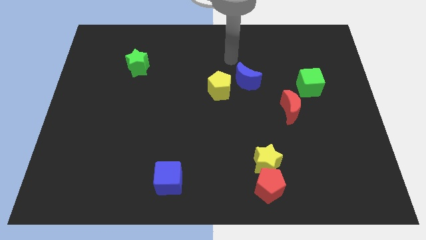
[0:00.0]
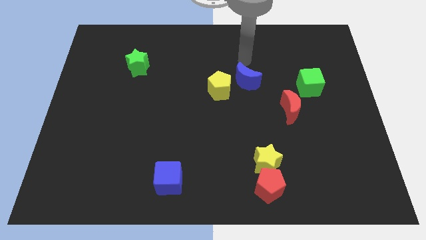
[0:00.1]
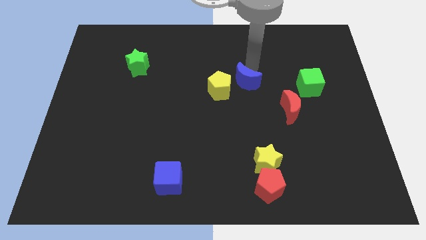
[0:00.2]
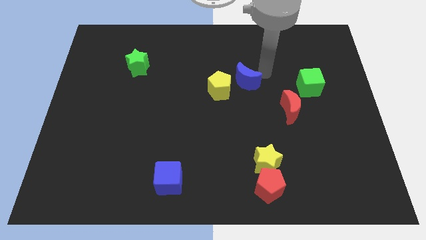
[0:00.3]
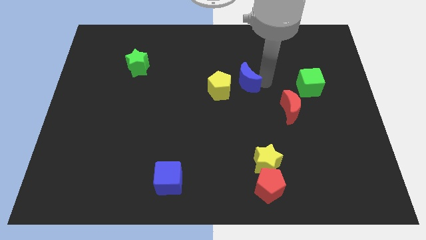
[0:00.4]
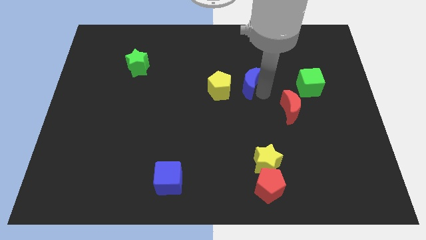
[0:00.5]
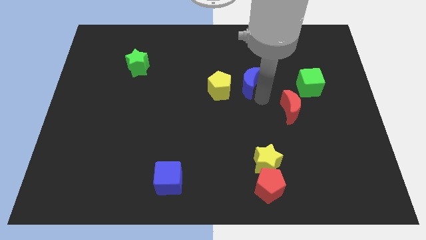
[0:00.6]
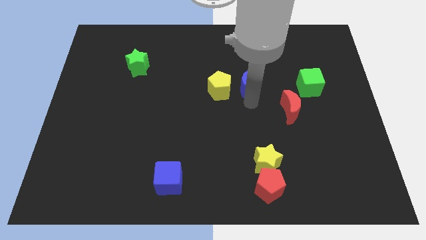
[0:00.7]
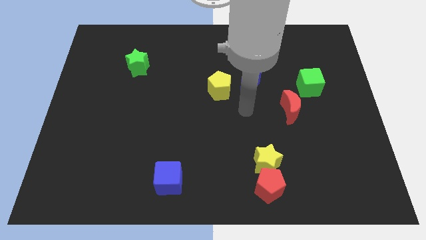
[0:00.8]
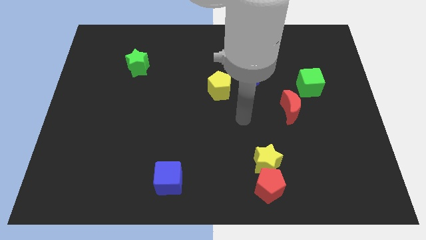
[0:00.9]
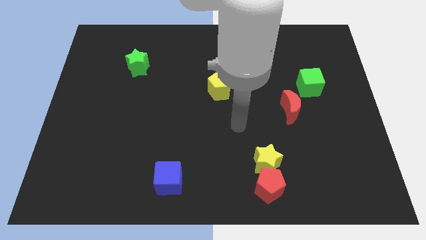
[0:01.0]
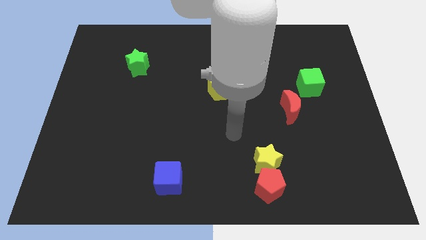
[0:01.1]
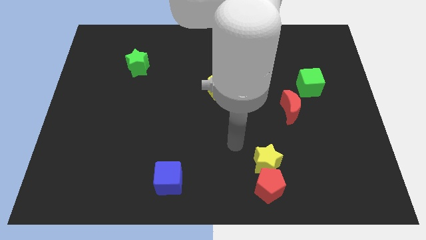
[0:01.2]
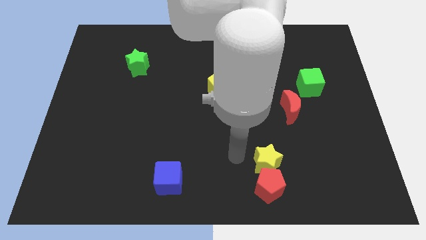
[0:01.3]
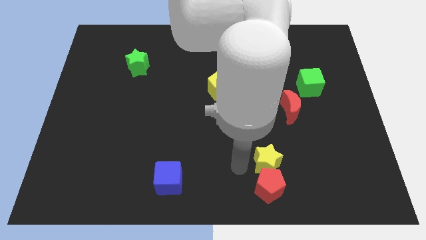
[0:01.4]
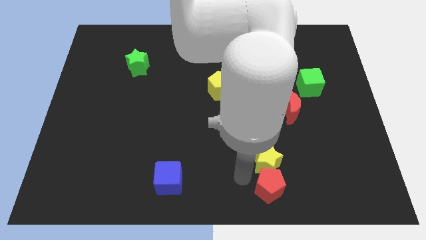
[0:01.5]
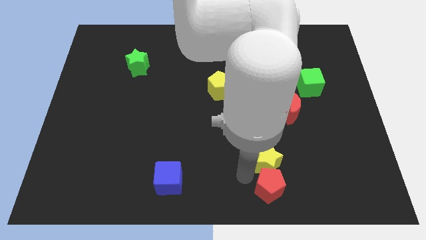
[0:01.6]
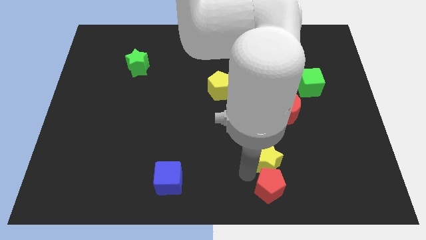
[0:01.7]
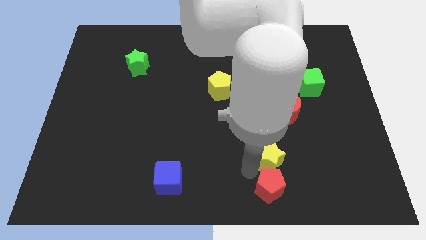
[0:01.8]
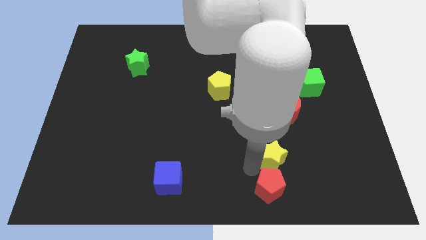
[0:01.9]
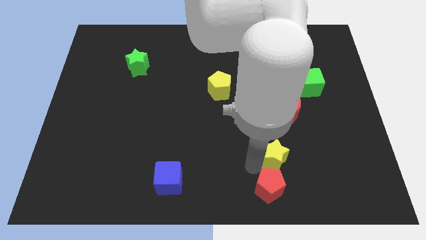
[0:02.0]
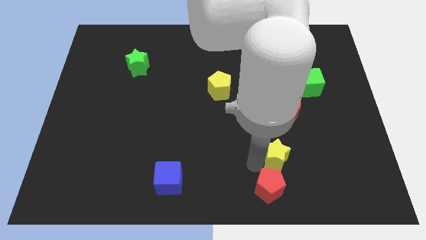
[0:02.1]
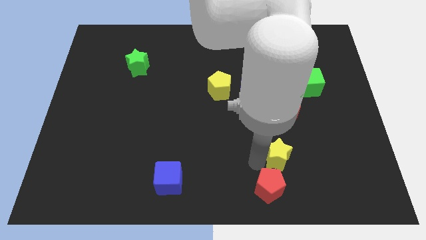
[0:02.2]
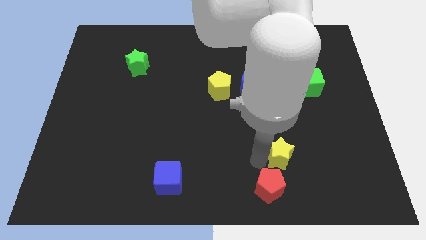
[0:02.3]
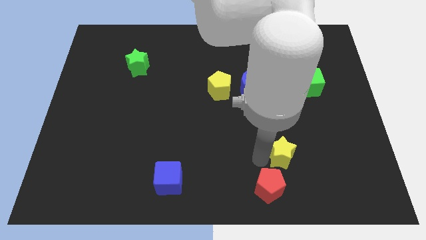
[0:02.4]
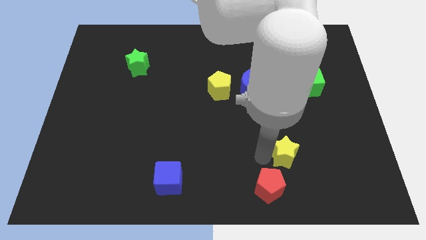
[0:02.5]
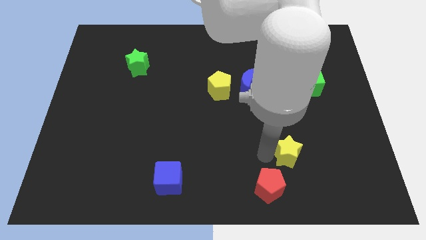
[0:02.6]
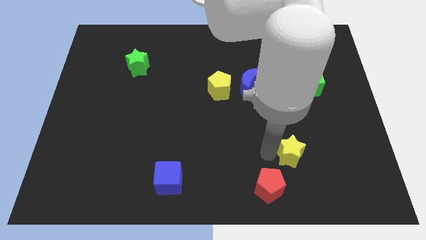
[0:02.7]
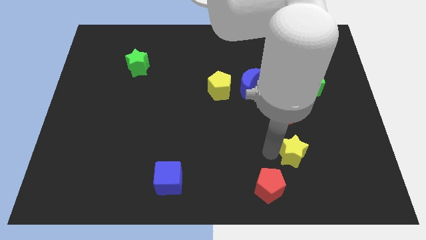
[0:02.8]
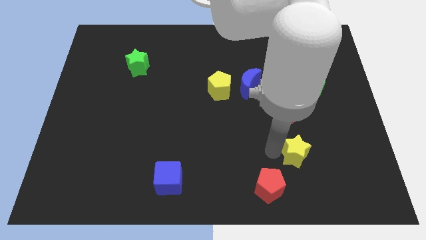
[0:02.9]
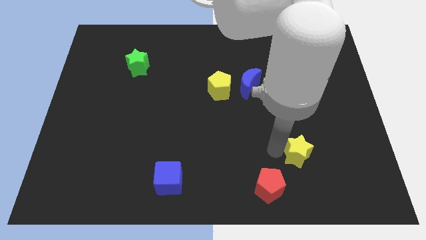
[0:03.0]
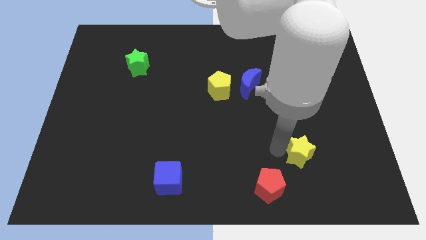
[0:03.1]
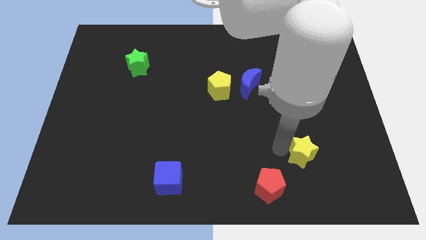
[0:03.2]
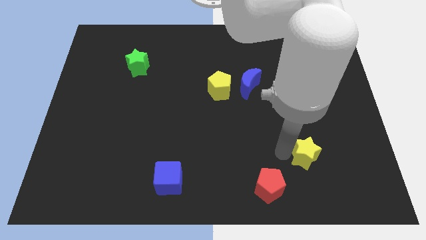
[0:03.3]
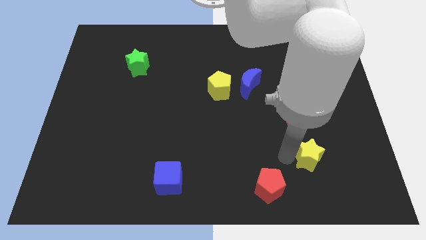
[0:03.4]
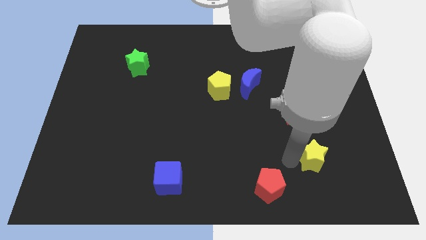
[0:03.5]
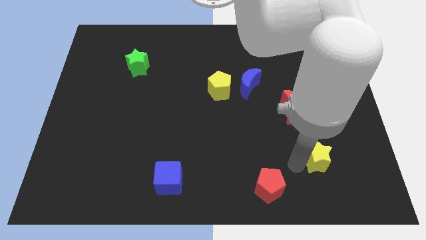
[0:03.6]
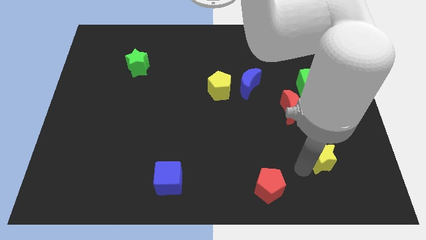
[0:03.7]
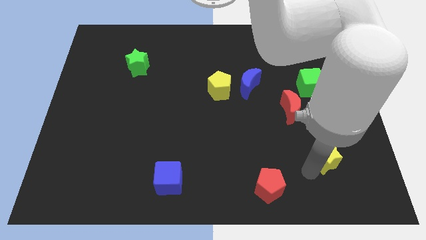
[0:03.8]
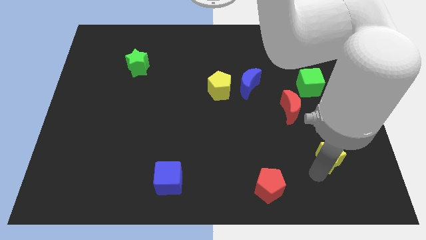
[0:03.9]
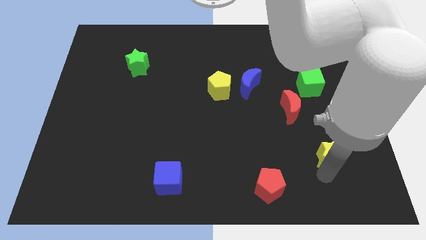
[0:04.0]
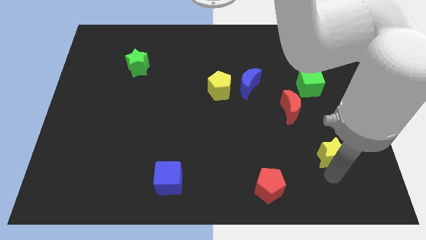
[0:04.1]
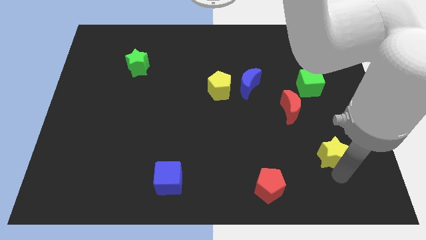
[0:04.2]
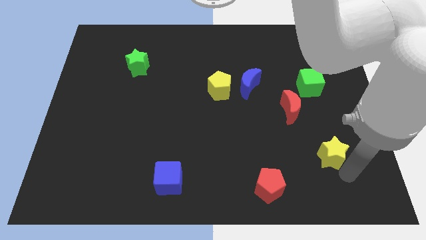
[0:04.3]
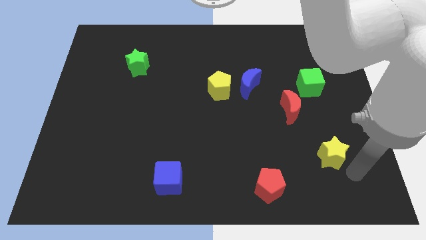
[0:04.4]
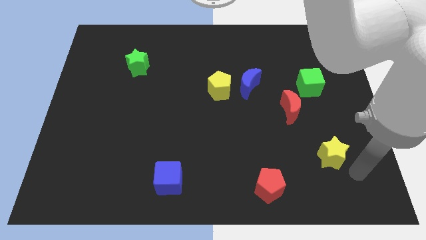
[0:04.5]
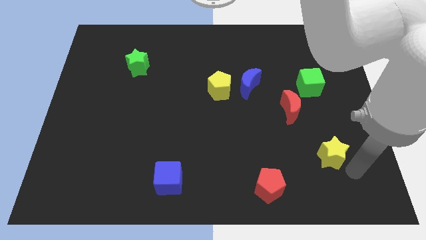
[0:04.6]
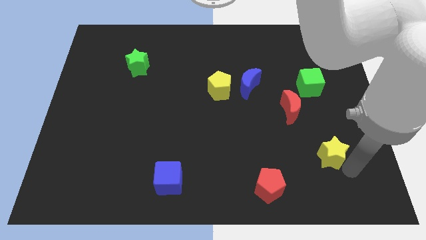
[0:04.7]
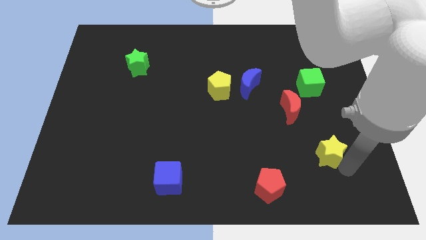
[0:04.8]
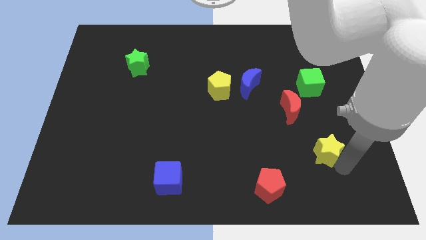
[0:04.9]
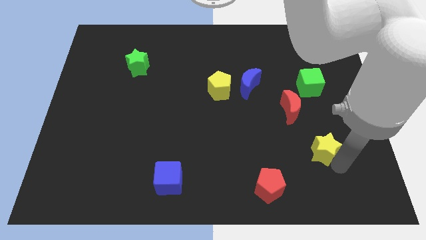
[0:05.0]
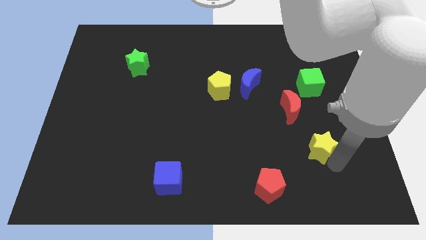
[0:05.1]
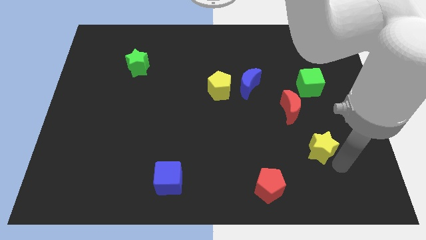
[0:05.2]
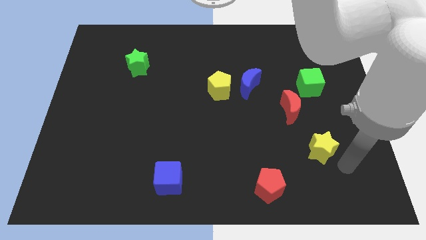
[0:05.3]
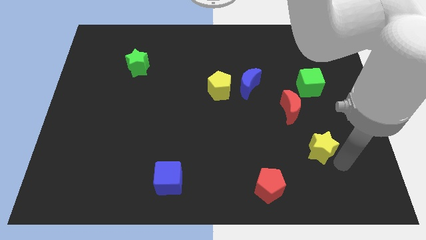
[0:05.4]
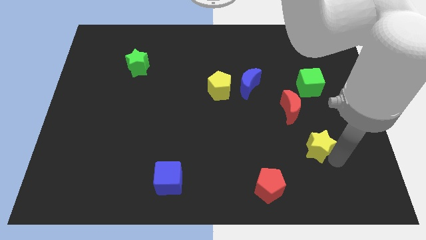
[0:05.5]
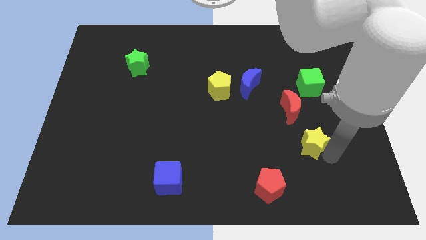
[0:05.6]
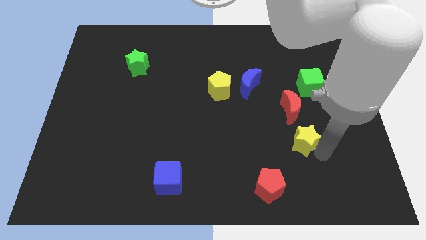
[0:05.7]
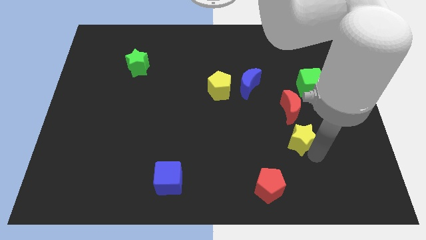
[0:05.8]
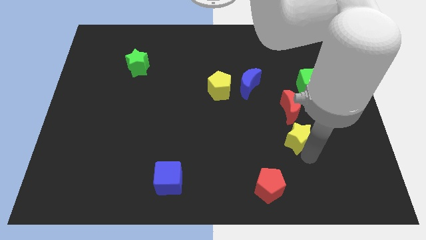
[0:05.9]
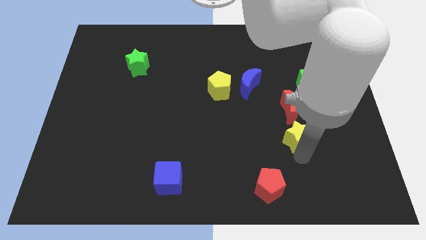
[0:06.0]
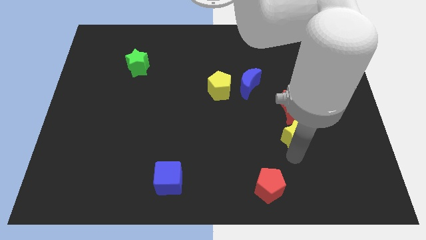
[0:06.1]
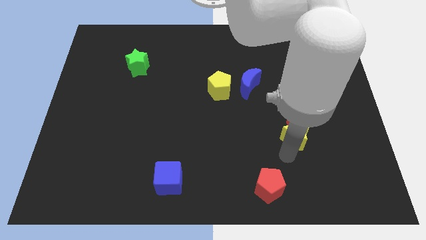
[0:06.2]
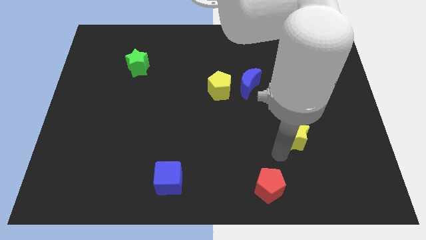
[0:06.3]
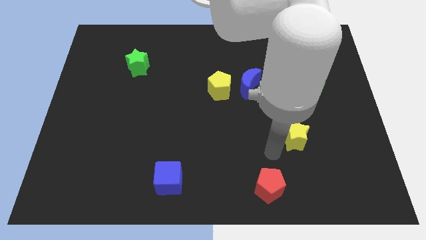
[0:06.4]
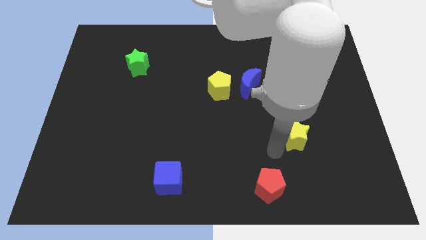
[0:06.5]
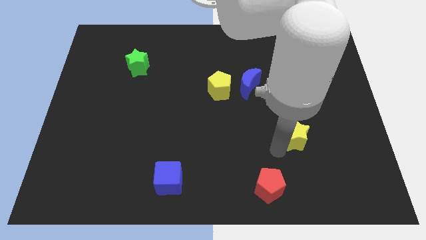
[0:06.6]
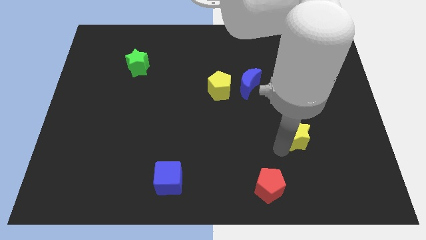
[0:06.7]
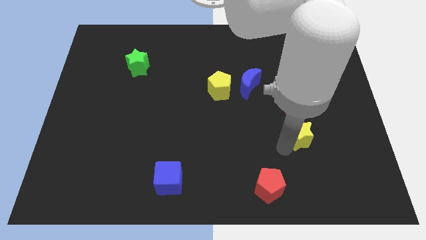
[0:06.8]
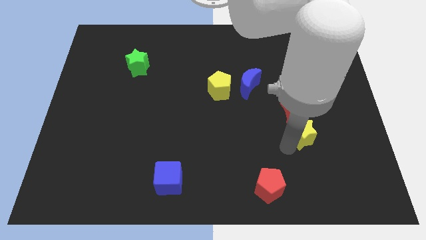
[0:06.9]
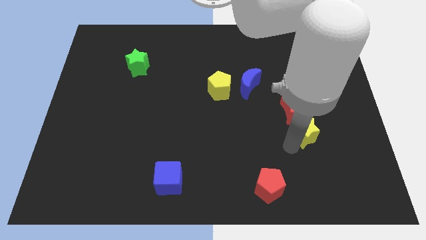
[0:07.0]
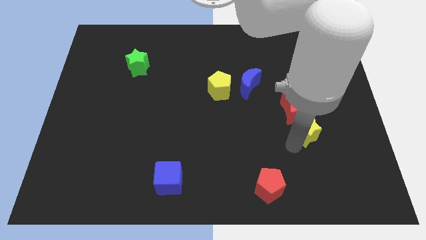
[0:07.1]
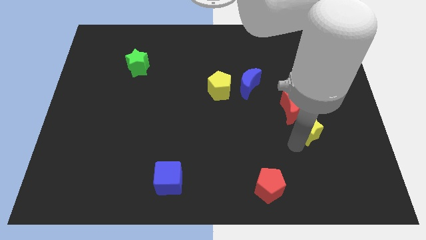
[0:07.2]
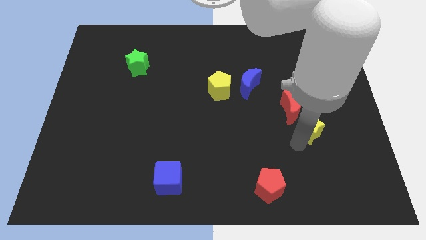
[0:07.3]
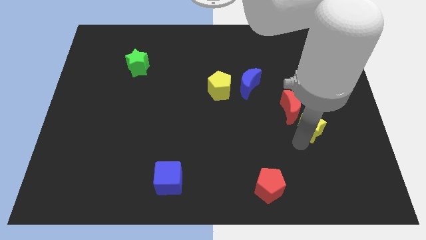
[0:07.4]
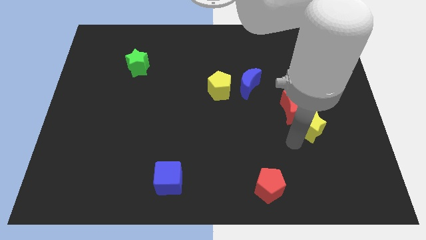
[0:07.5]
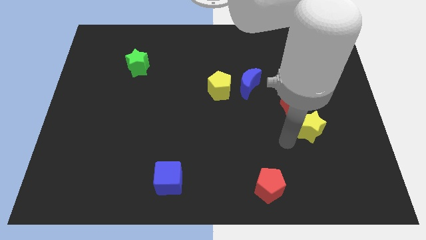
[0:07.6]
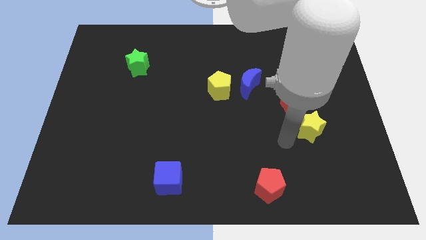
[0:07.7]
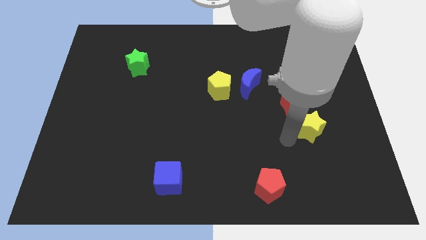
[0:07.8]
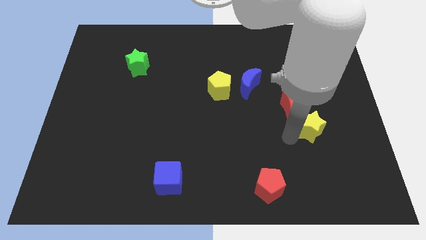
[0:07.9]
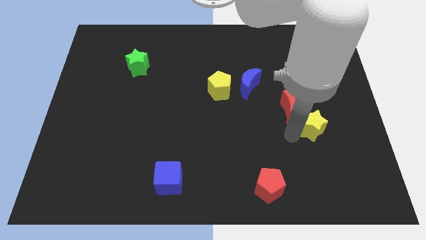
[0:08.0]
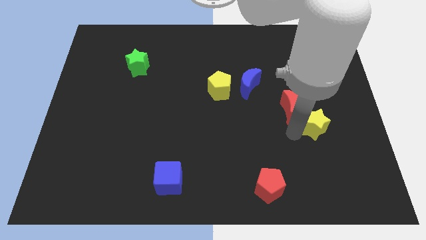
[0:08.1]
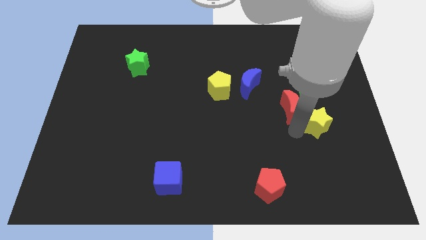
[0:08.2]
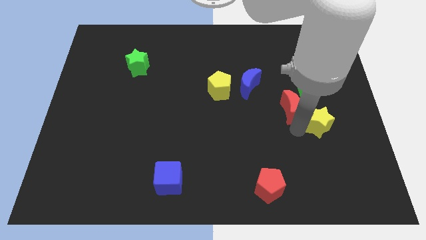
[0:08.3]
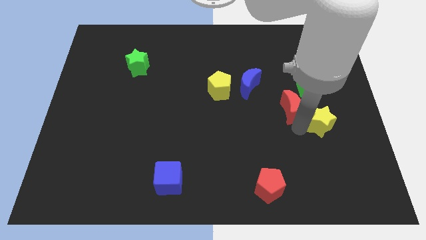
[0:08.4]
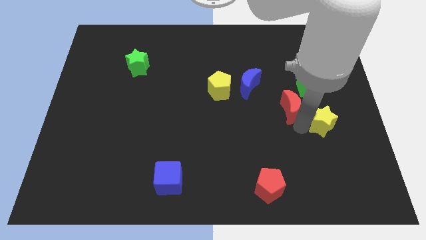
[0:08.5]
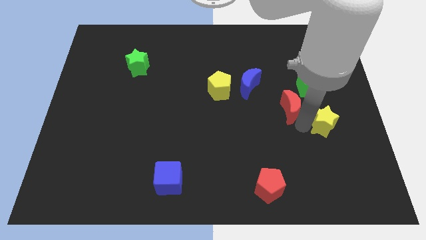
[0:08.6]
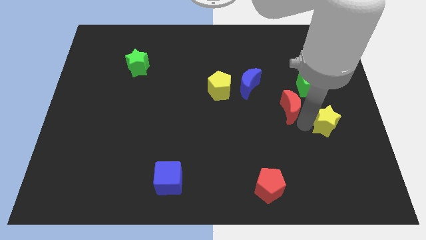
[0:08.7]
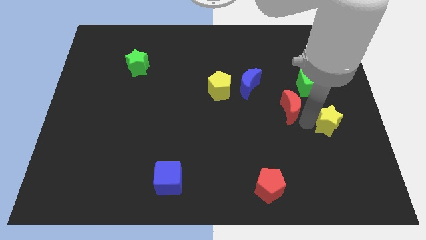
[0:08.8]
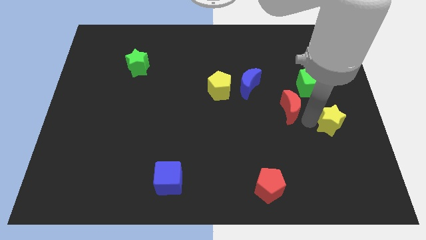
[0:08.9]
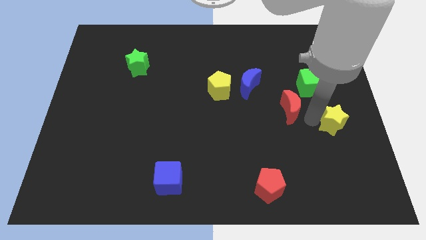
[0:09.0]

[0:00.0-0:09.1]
slide the yellow star to the right side
